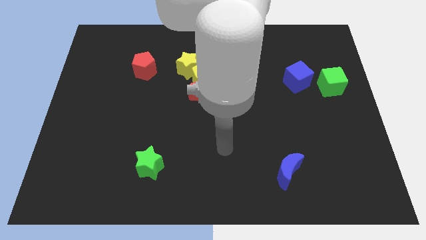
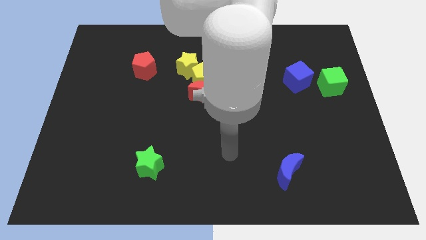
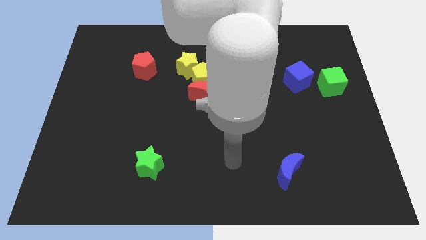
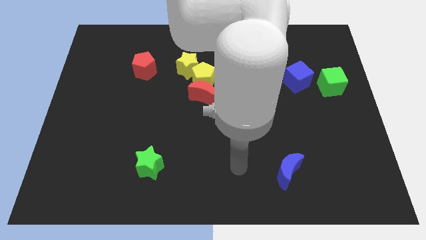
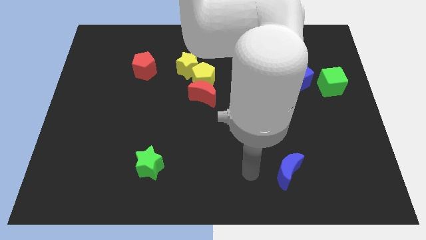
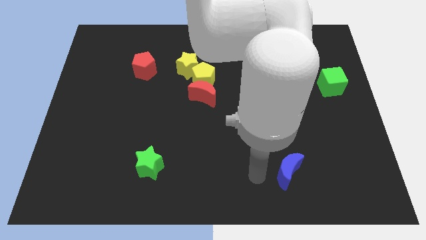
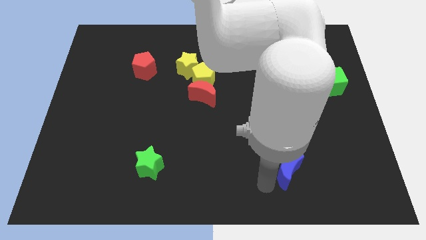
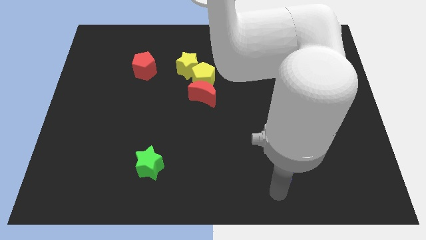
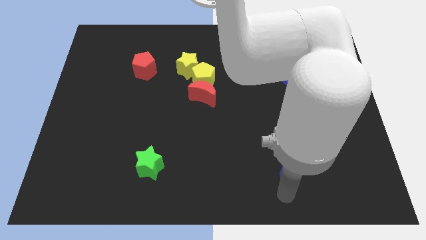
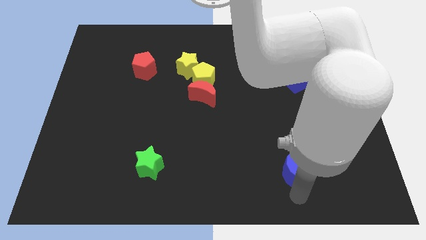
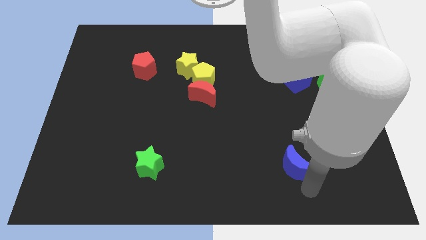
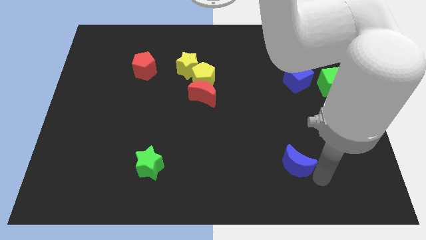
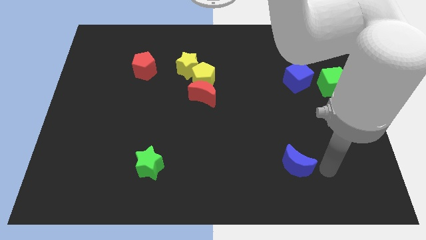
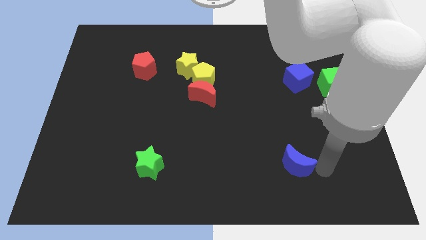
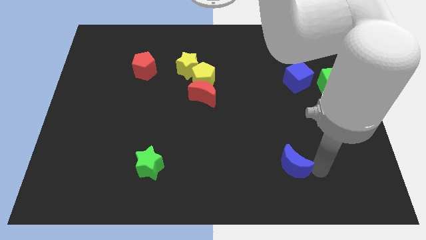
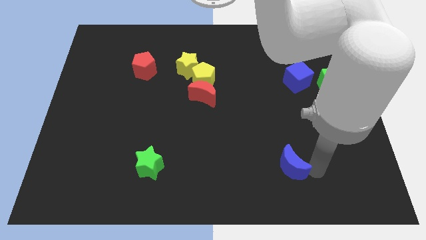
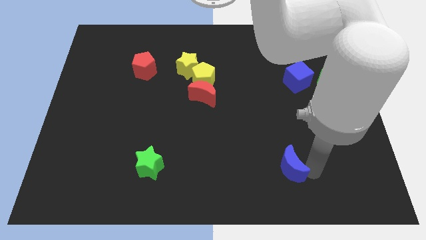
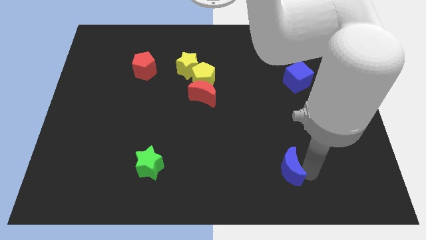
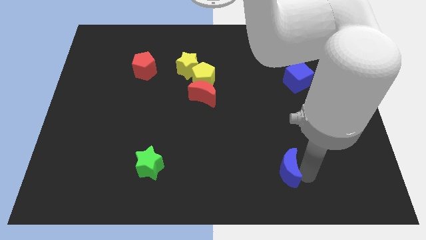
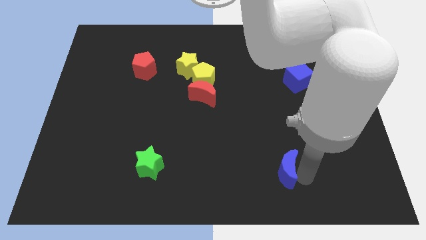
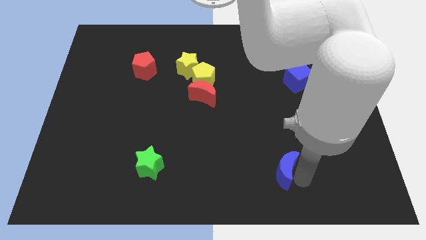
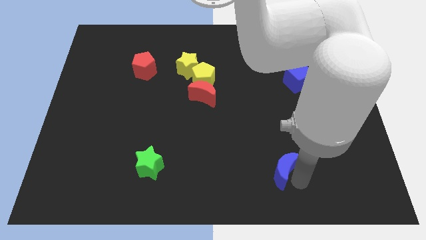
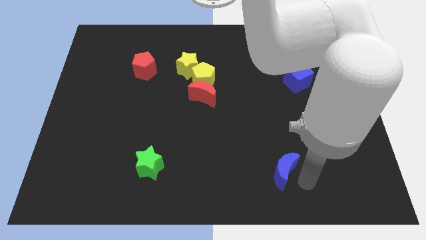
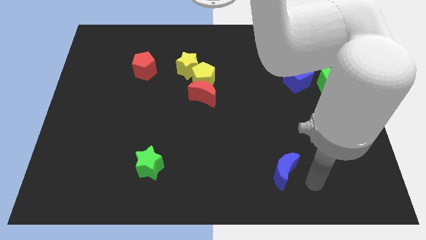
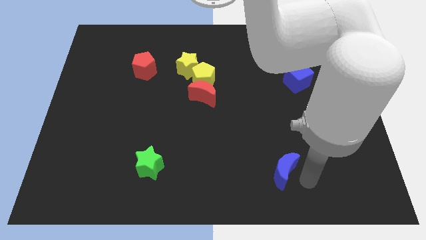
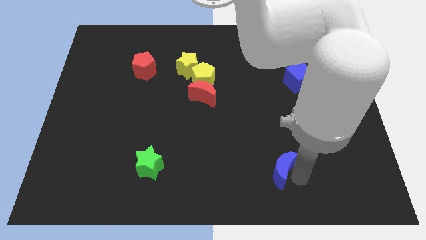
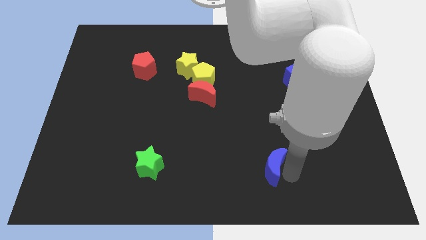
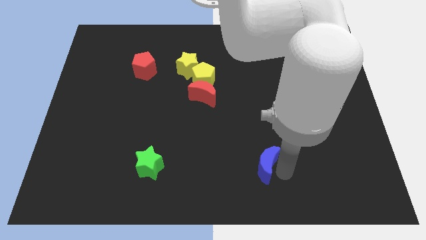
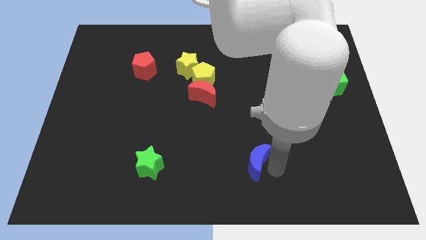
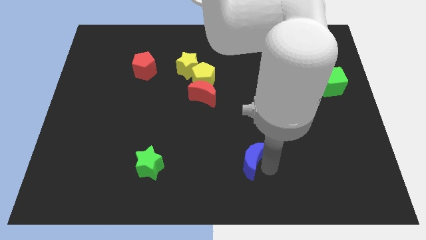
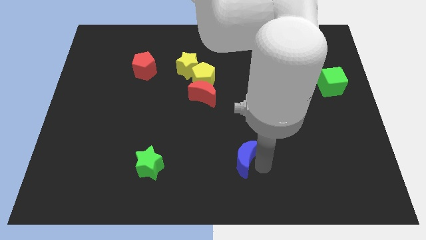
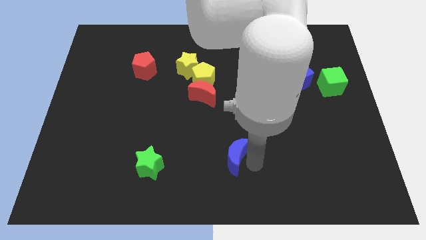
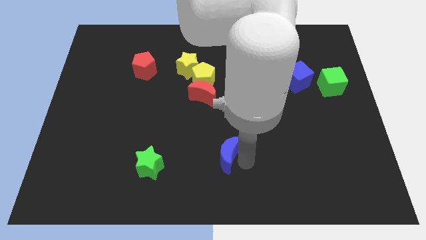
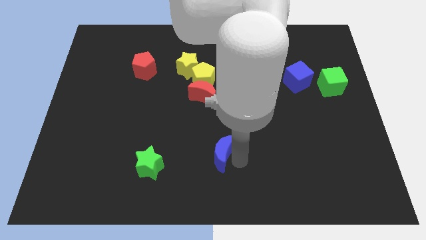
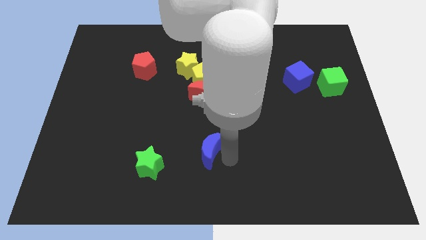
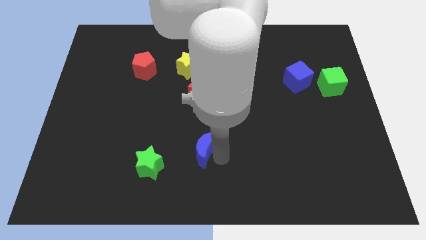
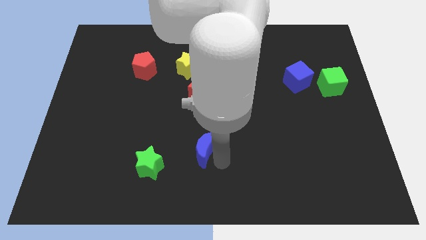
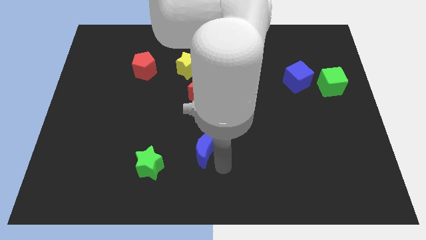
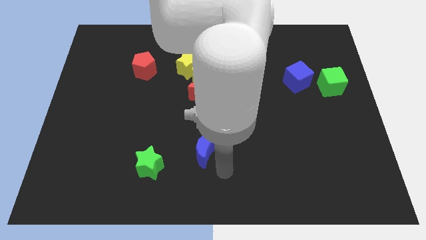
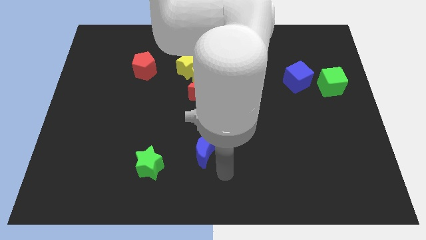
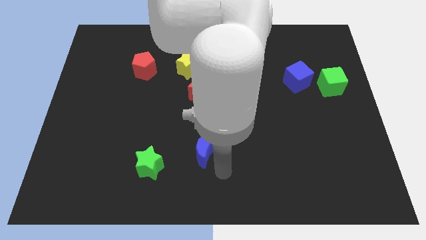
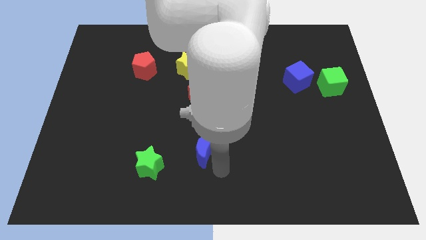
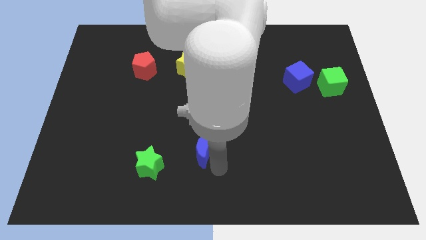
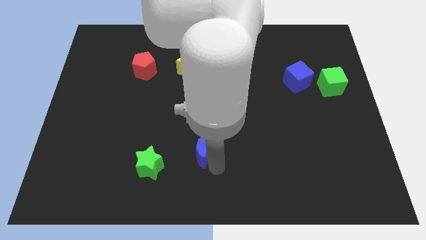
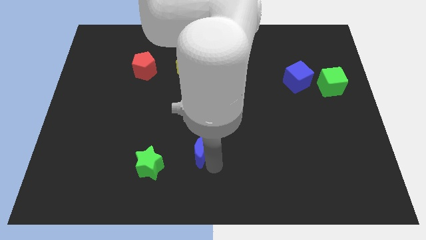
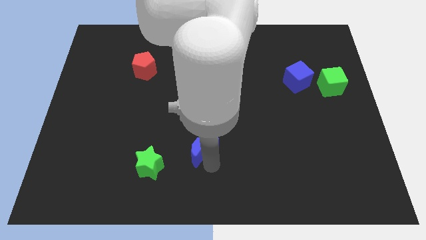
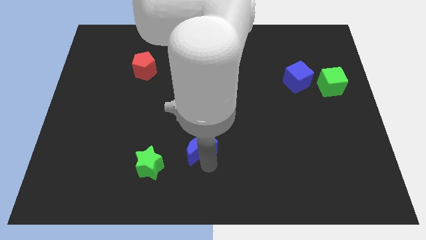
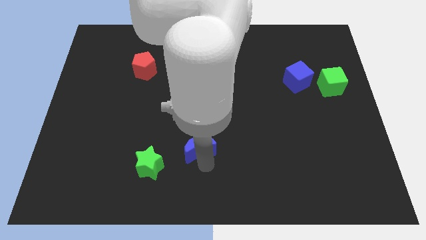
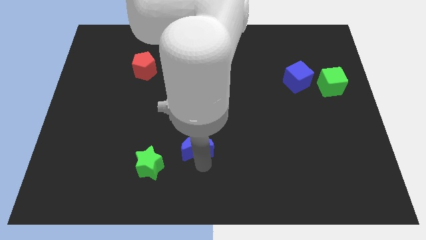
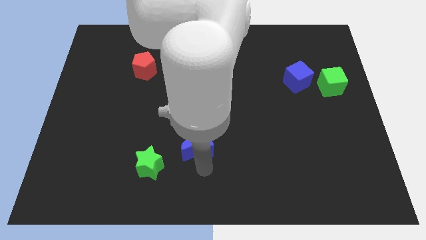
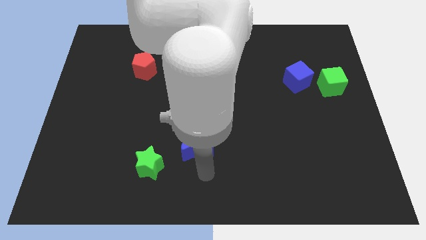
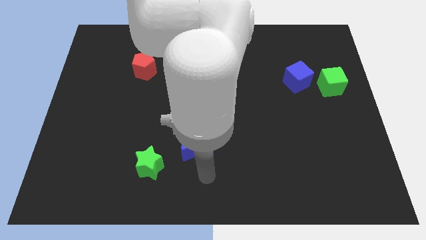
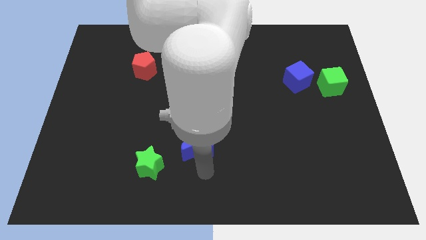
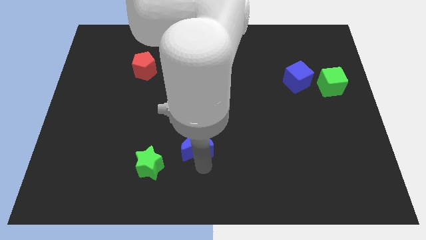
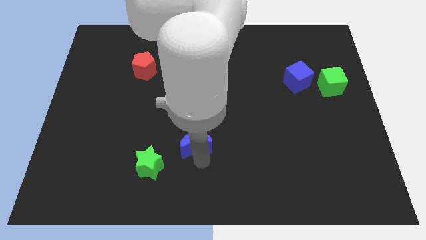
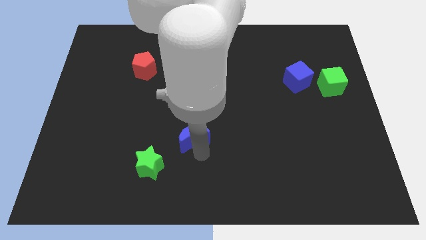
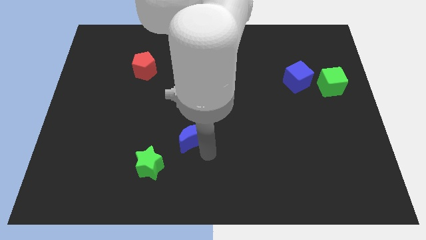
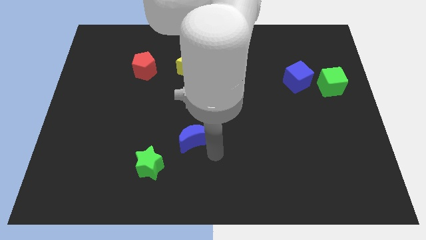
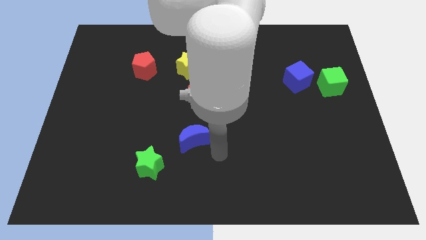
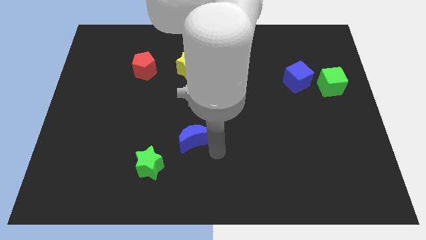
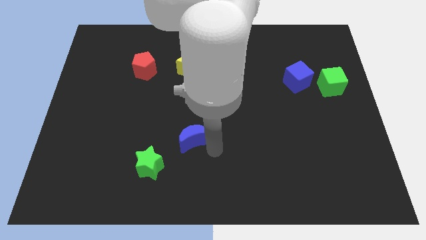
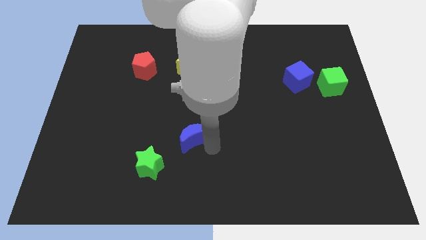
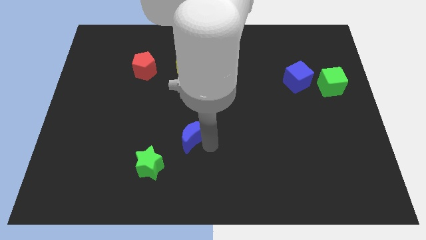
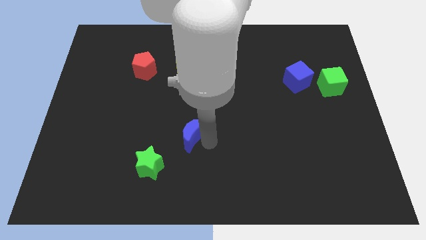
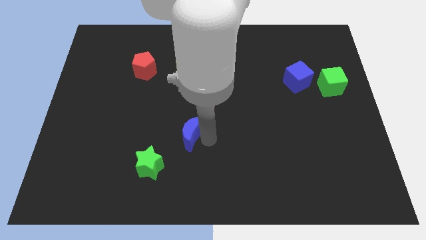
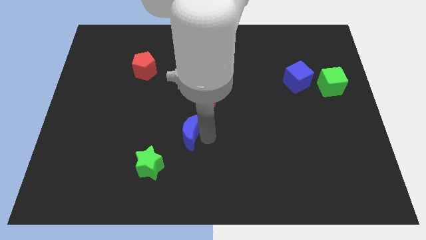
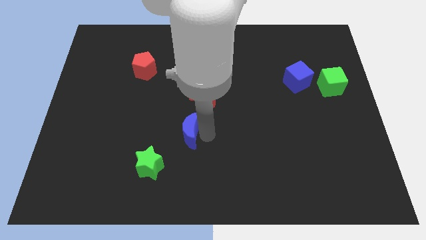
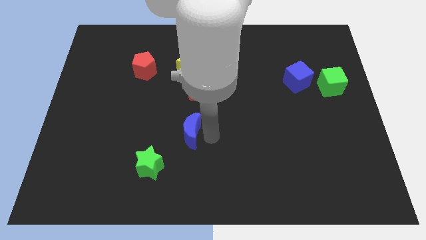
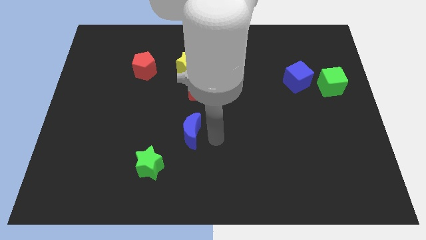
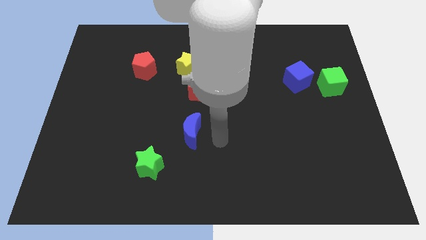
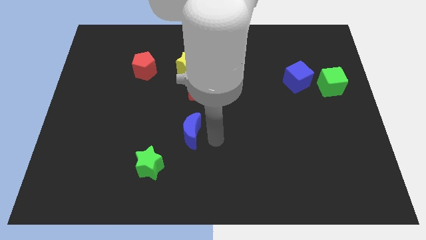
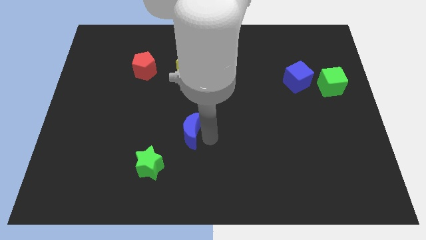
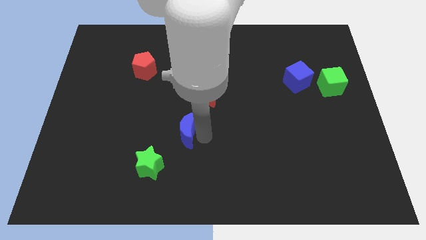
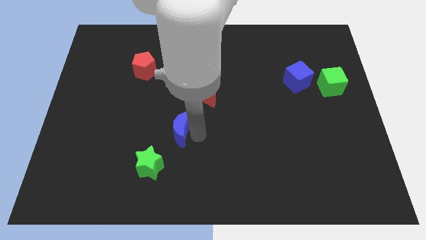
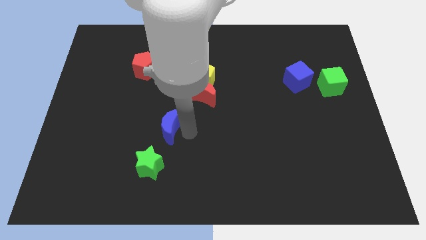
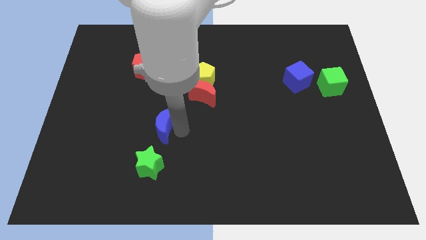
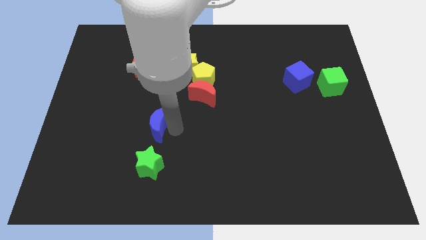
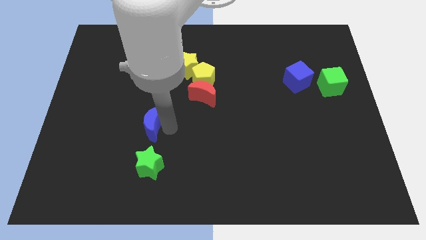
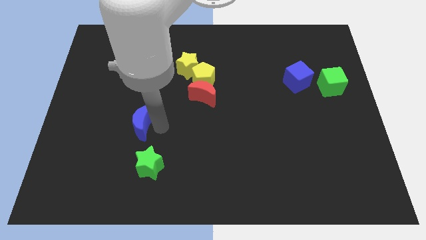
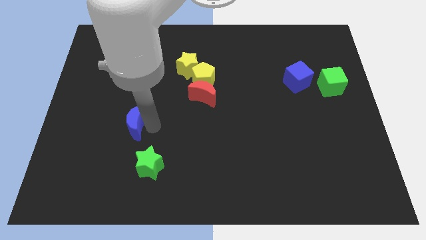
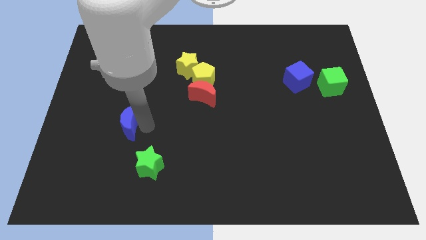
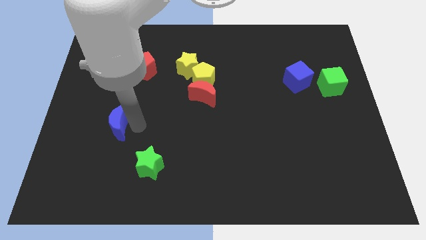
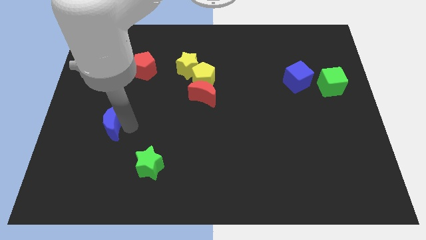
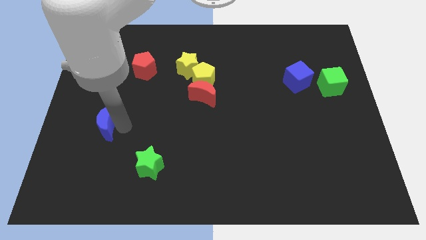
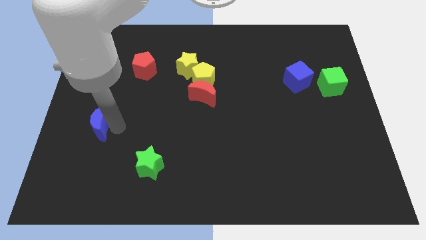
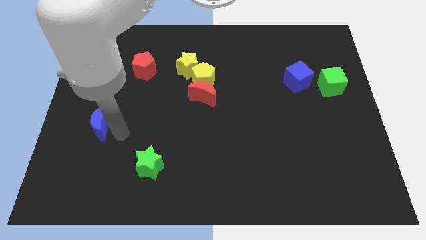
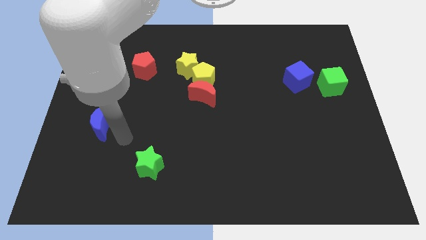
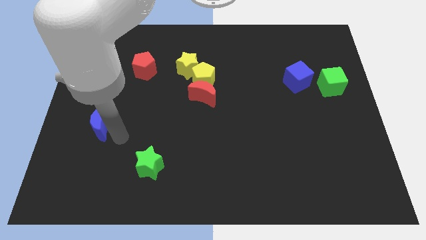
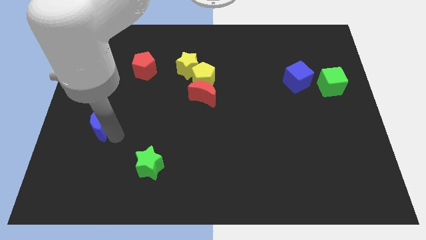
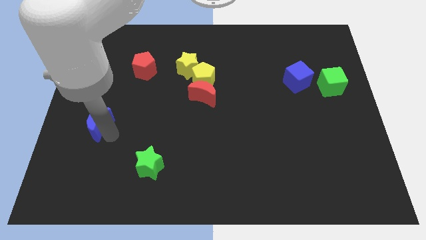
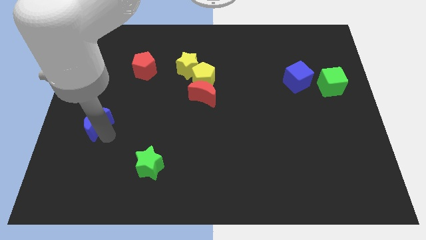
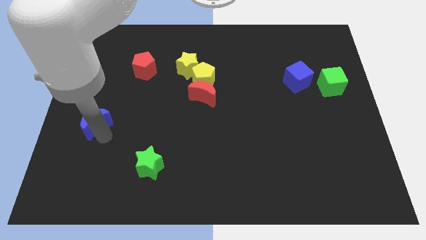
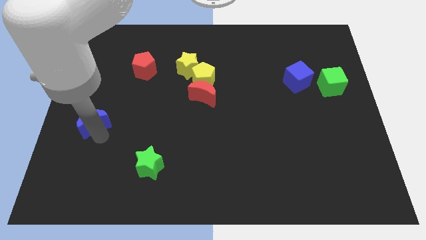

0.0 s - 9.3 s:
move the blue moon to the center left
